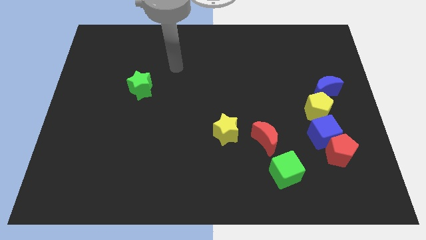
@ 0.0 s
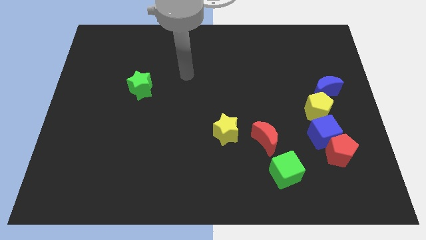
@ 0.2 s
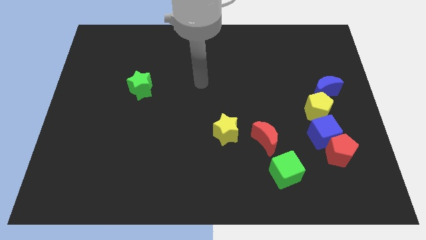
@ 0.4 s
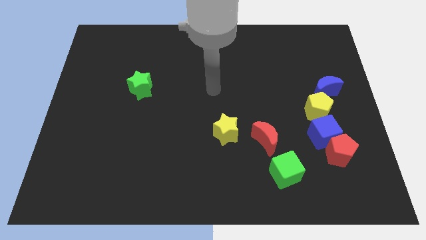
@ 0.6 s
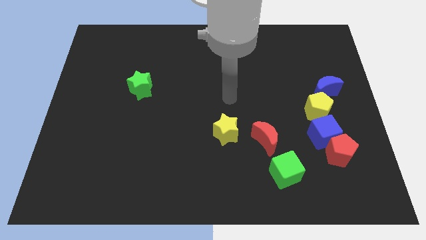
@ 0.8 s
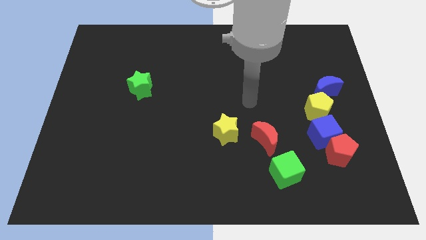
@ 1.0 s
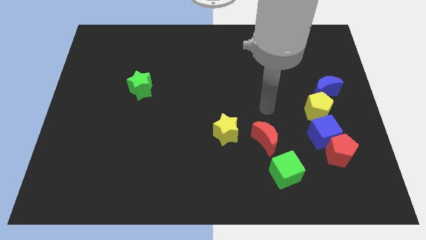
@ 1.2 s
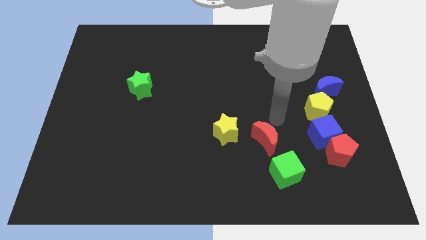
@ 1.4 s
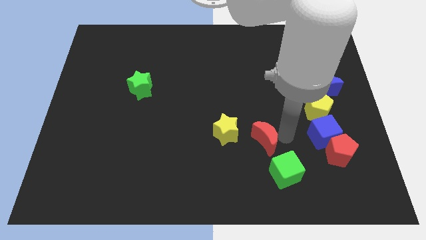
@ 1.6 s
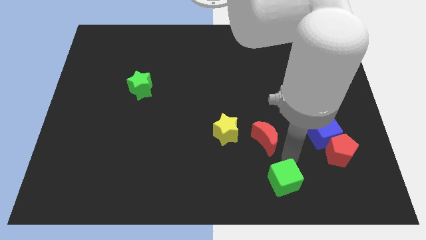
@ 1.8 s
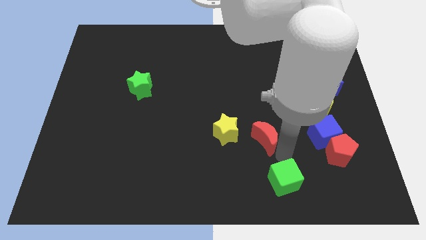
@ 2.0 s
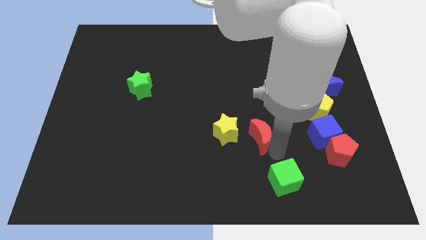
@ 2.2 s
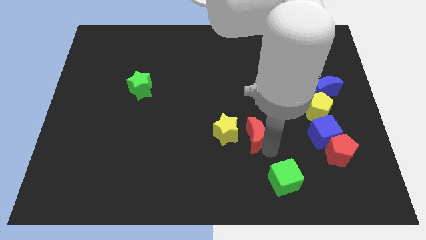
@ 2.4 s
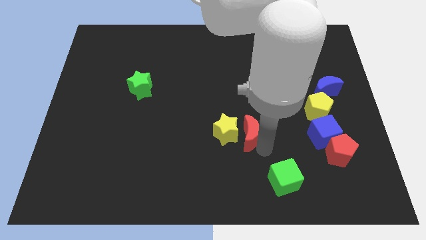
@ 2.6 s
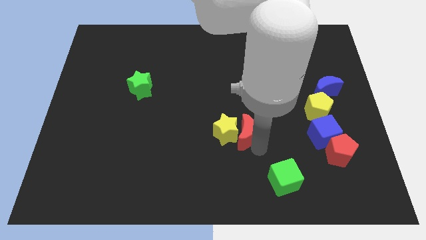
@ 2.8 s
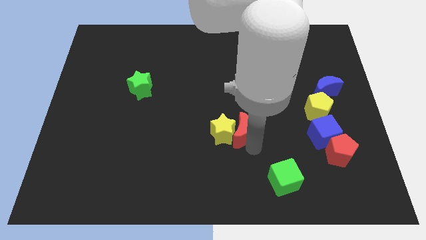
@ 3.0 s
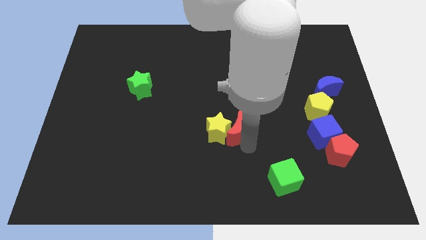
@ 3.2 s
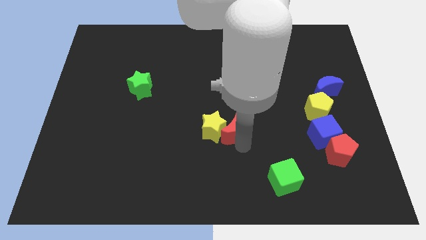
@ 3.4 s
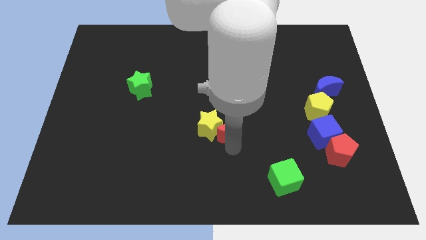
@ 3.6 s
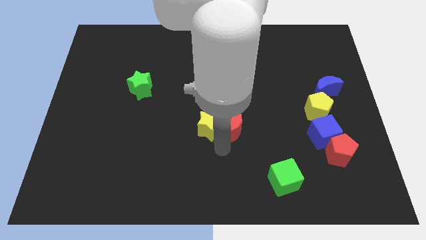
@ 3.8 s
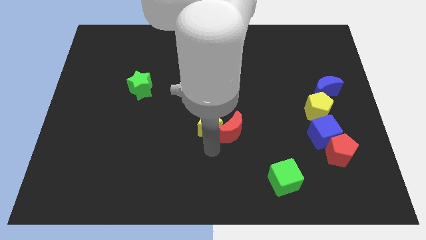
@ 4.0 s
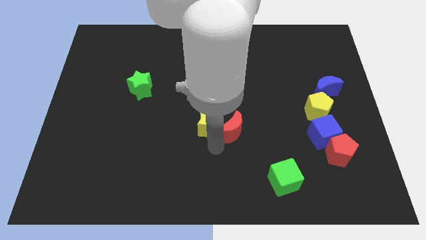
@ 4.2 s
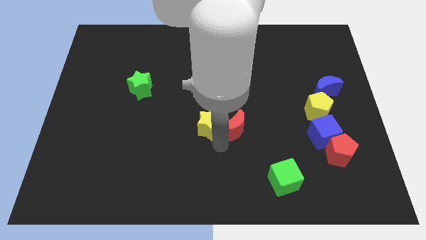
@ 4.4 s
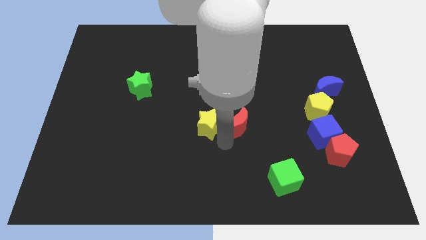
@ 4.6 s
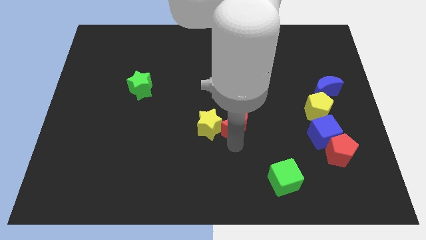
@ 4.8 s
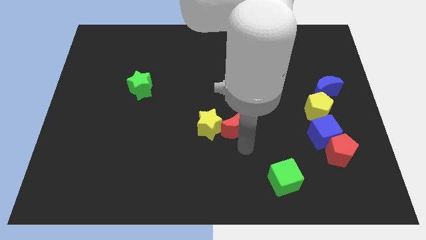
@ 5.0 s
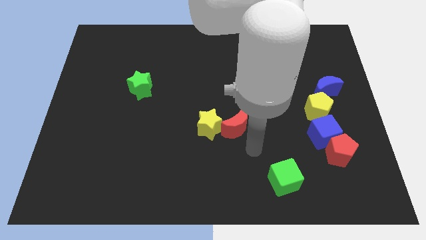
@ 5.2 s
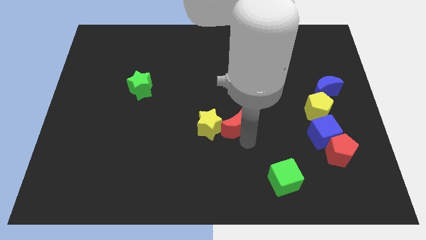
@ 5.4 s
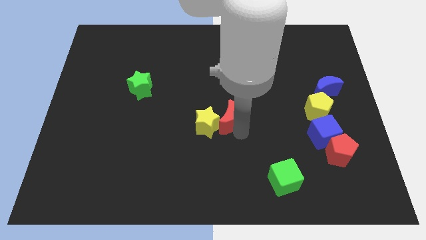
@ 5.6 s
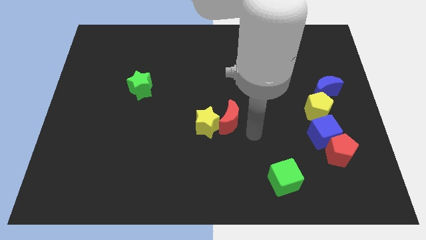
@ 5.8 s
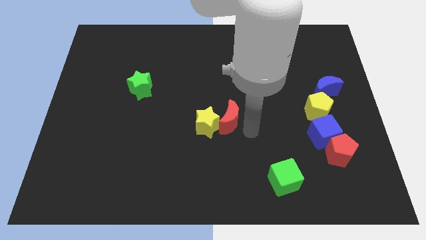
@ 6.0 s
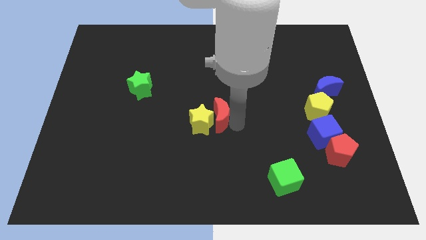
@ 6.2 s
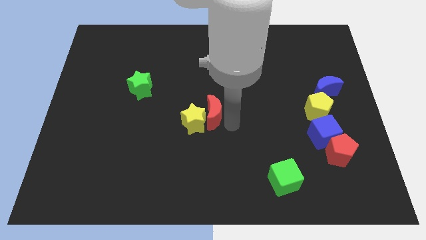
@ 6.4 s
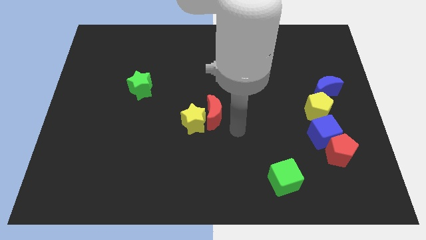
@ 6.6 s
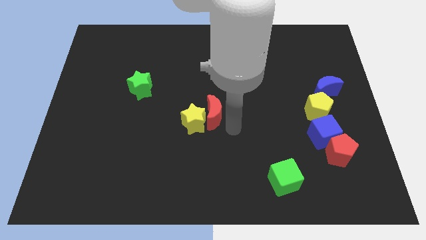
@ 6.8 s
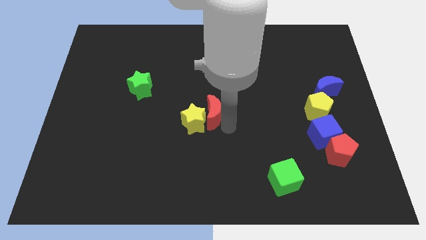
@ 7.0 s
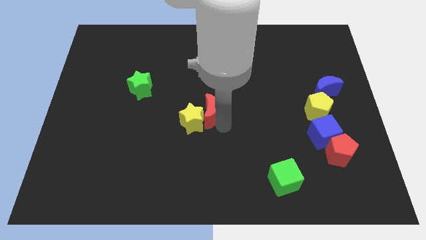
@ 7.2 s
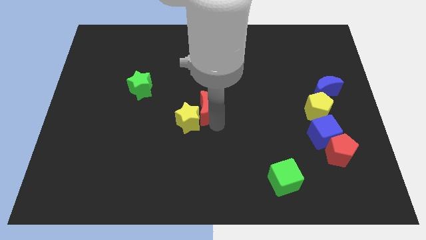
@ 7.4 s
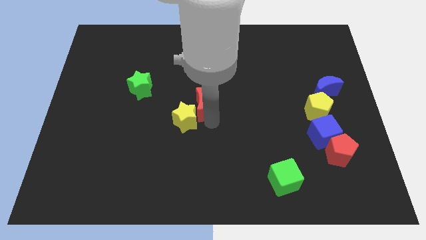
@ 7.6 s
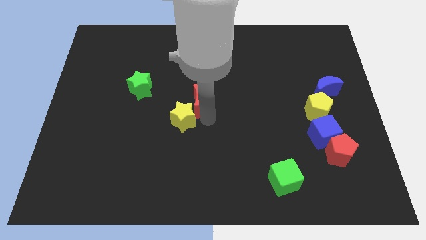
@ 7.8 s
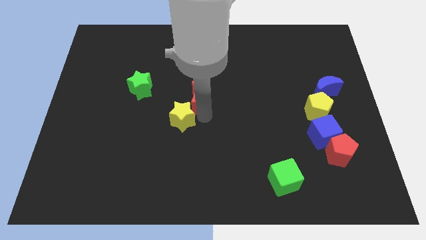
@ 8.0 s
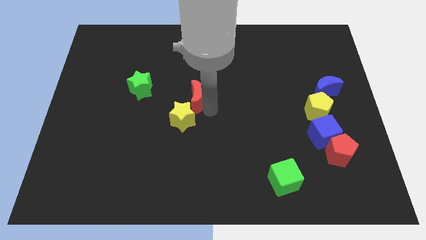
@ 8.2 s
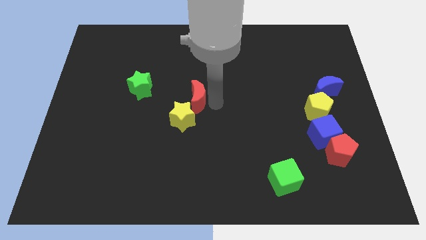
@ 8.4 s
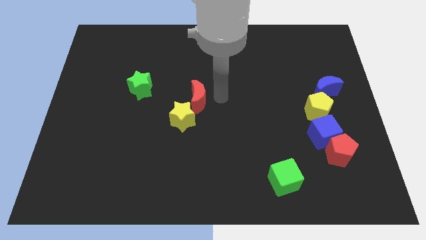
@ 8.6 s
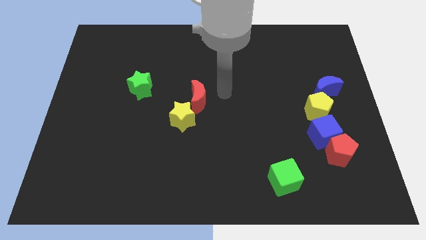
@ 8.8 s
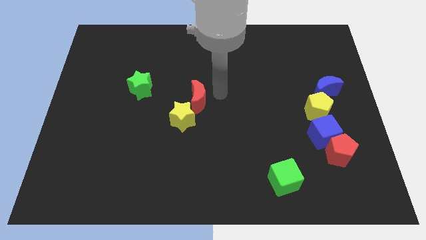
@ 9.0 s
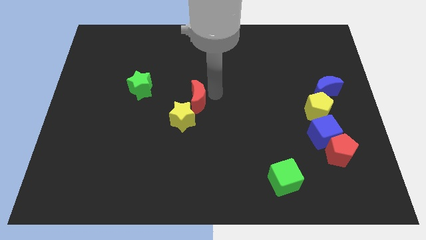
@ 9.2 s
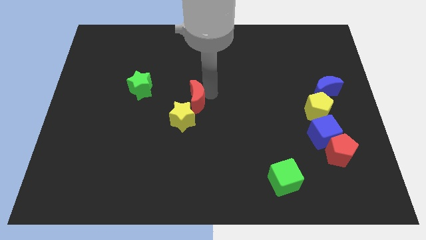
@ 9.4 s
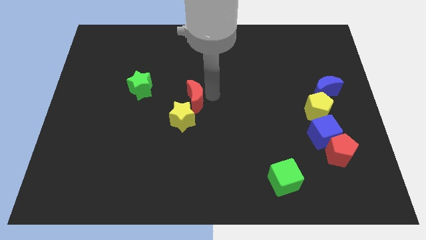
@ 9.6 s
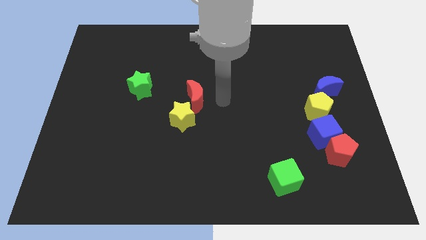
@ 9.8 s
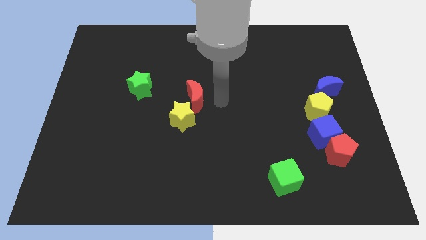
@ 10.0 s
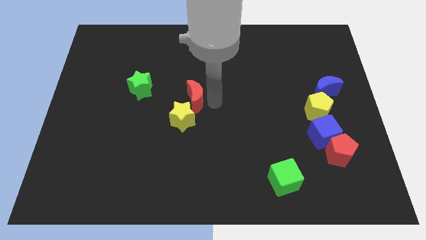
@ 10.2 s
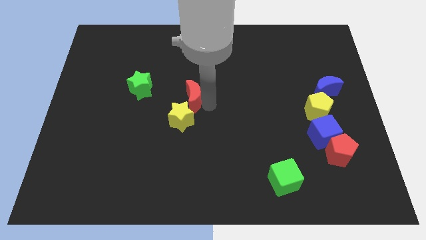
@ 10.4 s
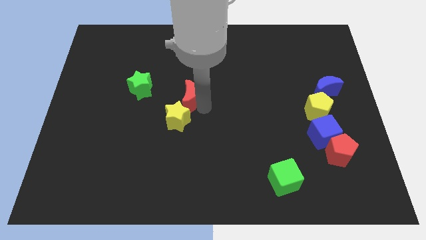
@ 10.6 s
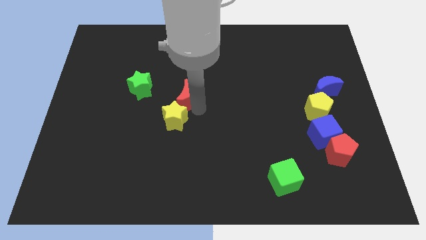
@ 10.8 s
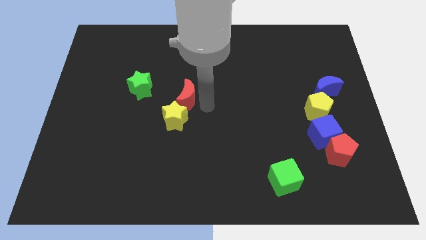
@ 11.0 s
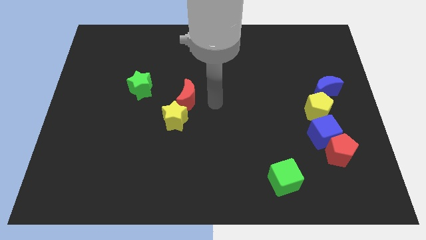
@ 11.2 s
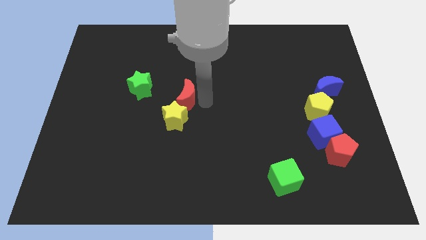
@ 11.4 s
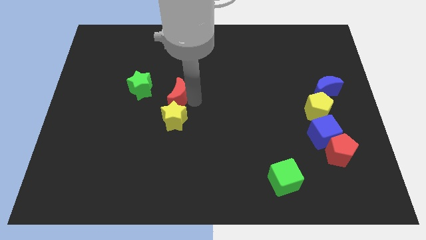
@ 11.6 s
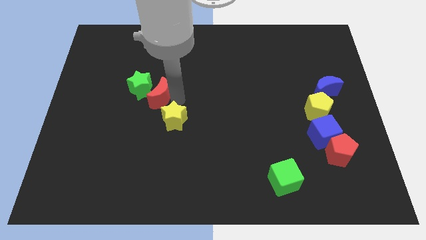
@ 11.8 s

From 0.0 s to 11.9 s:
push the red moon towards the green star

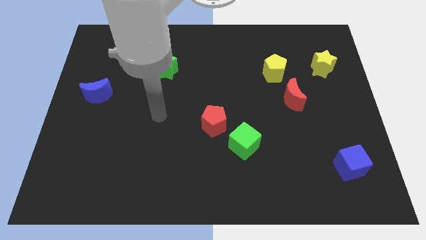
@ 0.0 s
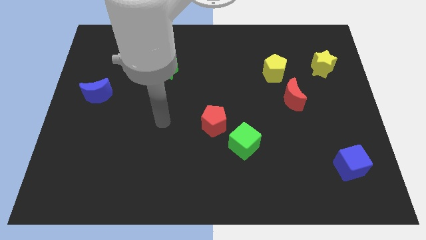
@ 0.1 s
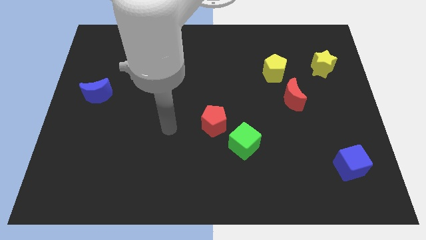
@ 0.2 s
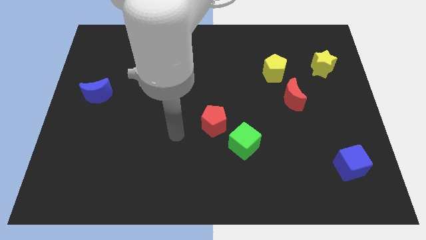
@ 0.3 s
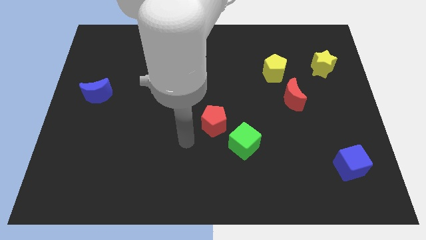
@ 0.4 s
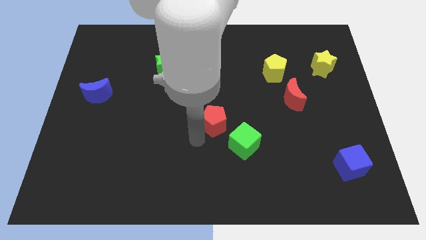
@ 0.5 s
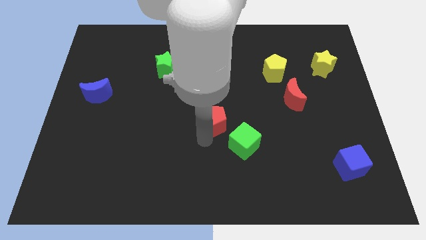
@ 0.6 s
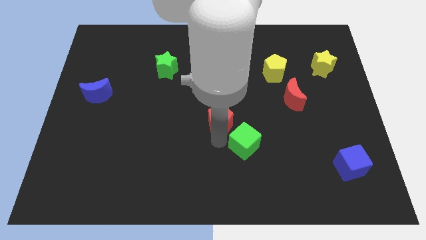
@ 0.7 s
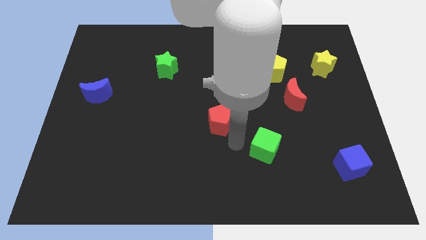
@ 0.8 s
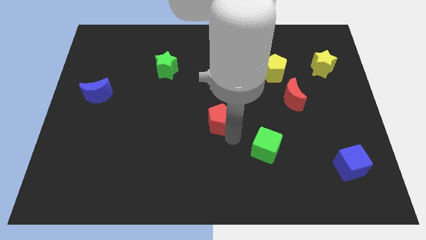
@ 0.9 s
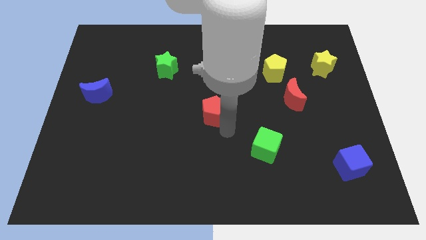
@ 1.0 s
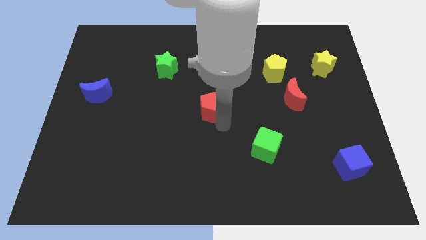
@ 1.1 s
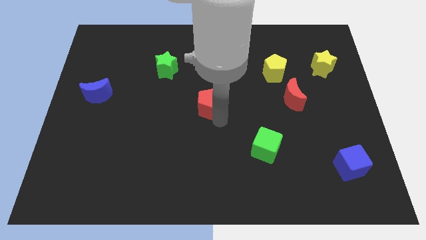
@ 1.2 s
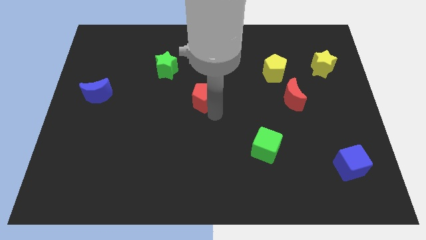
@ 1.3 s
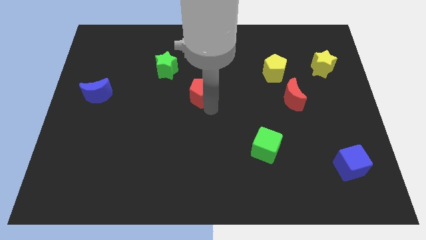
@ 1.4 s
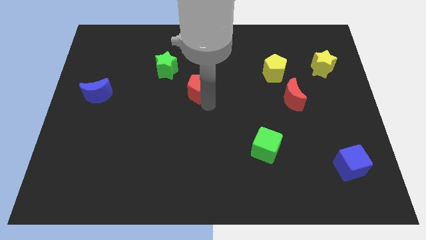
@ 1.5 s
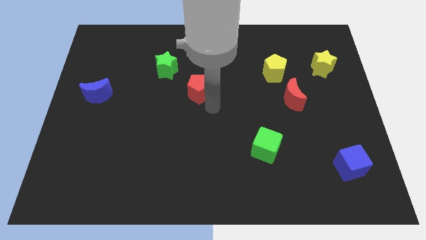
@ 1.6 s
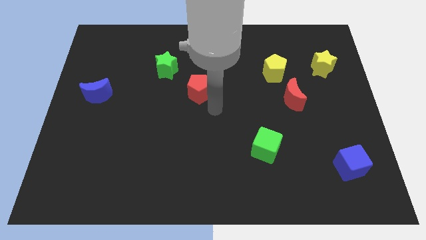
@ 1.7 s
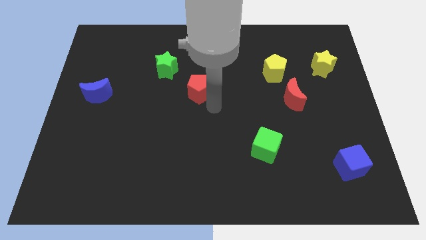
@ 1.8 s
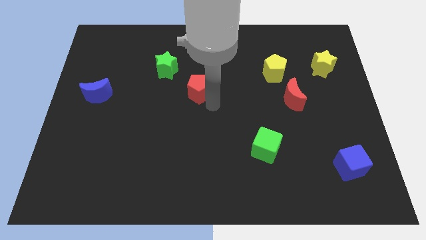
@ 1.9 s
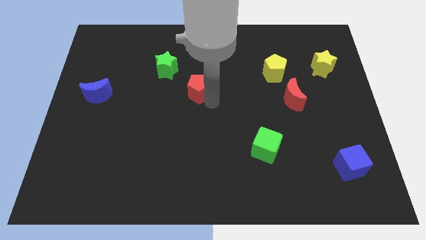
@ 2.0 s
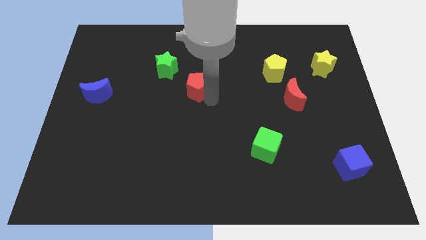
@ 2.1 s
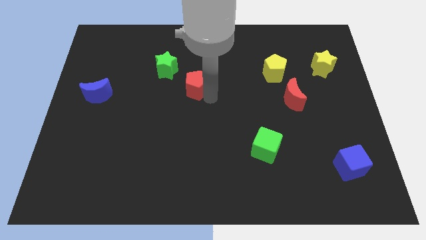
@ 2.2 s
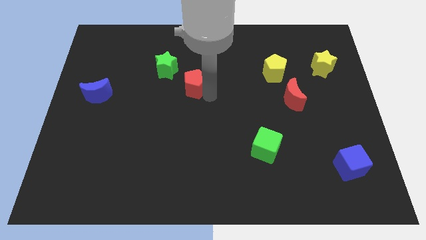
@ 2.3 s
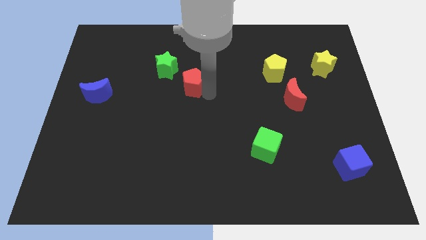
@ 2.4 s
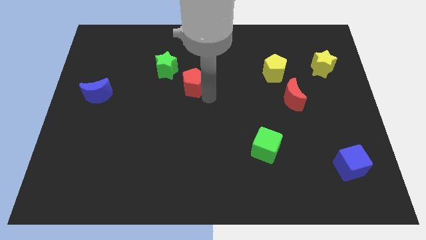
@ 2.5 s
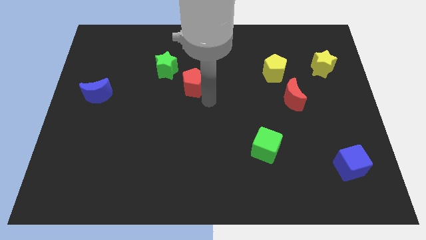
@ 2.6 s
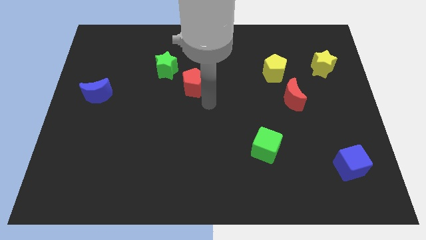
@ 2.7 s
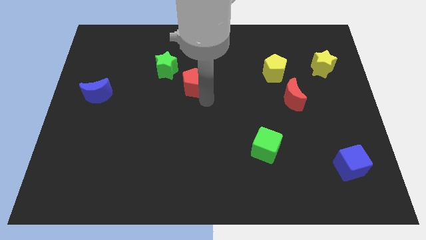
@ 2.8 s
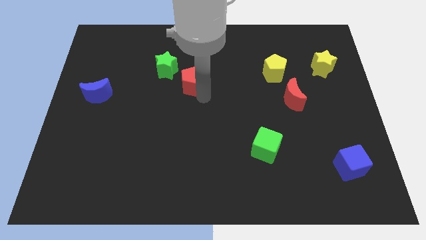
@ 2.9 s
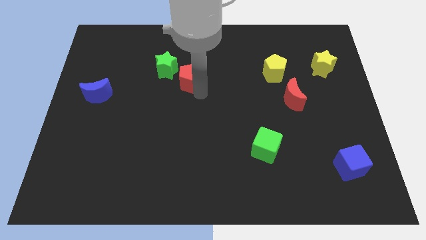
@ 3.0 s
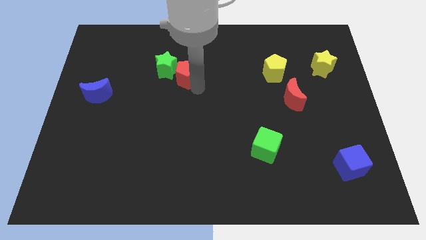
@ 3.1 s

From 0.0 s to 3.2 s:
move the red pentagon towards the green star
